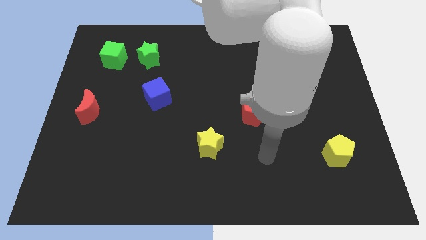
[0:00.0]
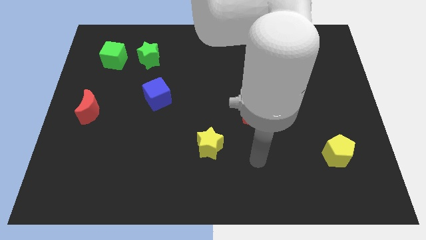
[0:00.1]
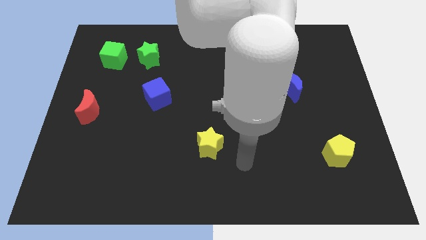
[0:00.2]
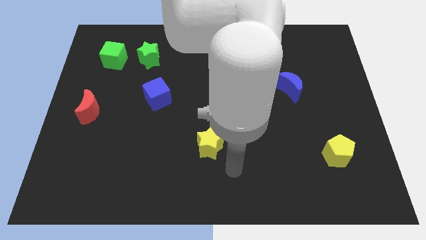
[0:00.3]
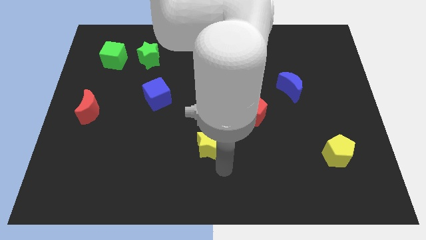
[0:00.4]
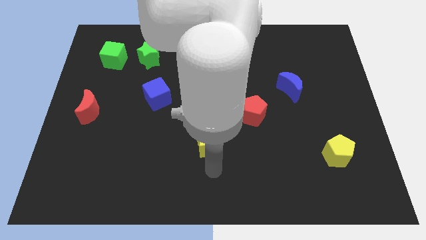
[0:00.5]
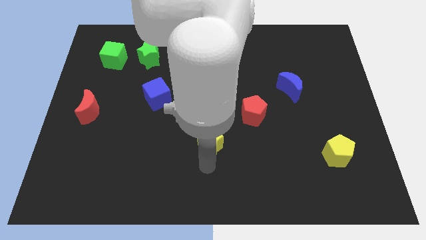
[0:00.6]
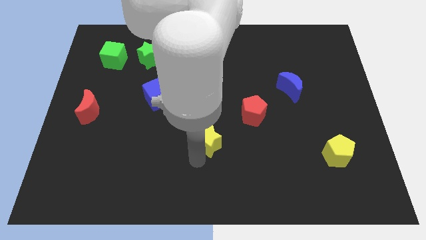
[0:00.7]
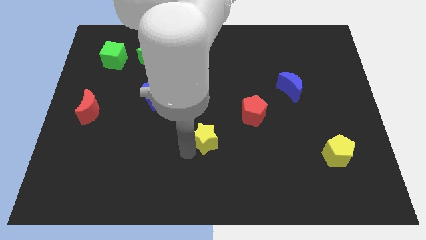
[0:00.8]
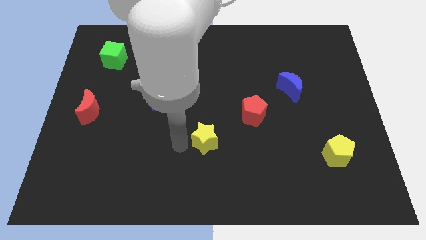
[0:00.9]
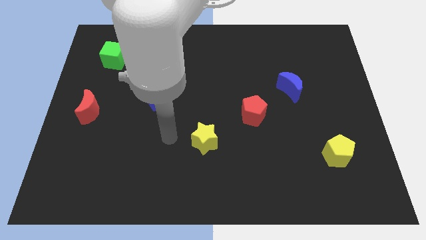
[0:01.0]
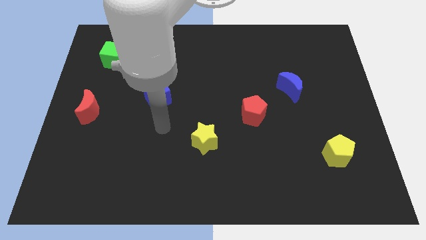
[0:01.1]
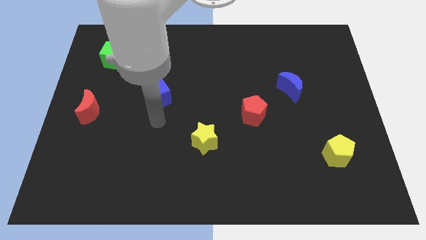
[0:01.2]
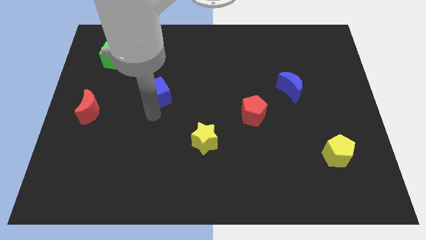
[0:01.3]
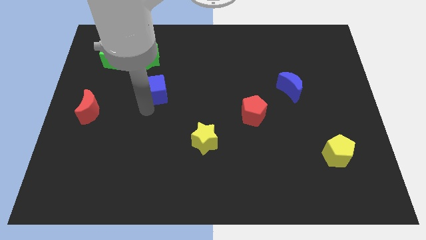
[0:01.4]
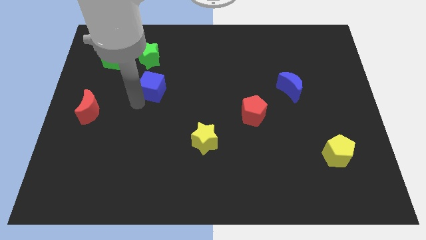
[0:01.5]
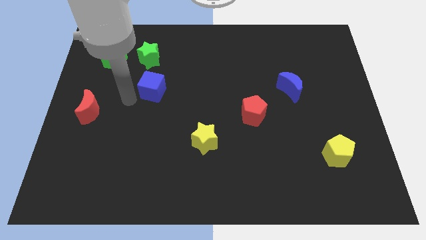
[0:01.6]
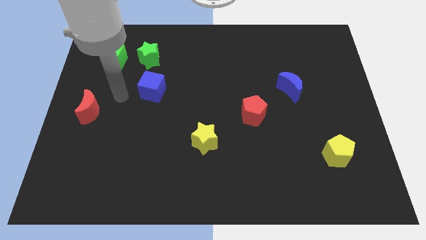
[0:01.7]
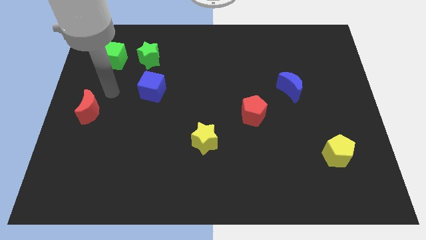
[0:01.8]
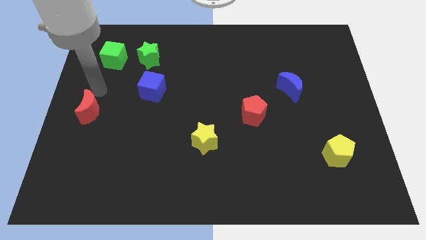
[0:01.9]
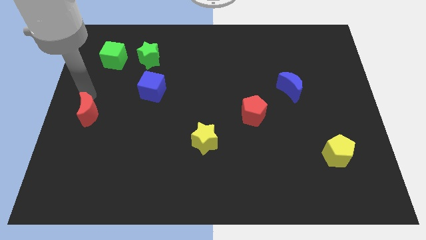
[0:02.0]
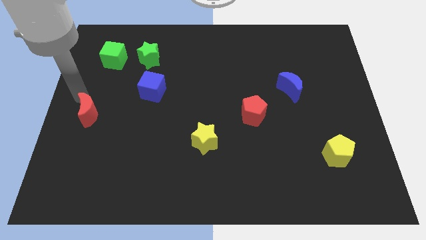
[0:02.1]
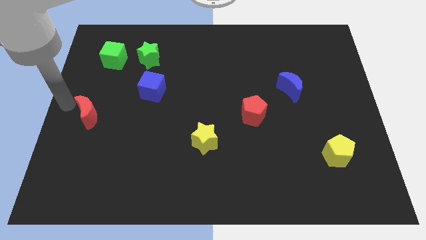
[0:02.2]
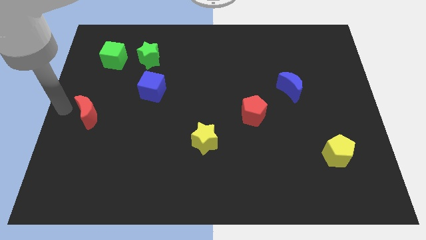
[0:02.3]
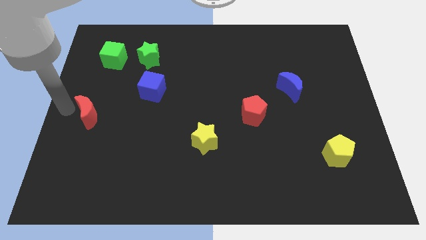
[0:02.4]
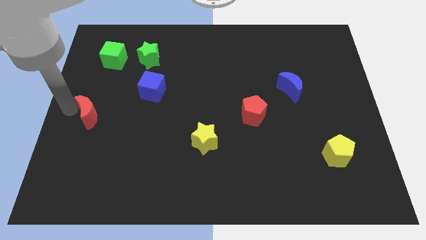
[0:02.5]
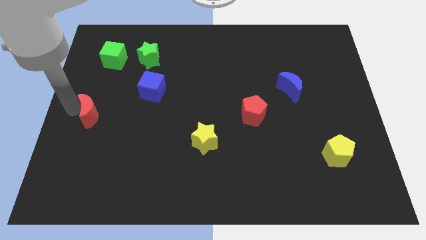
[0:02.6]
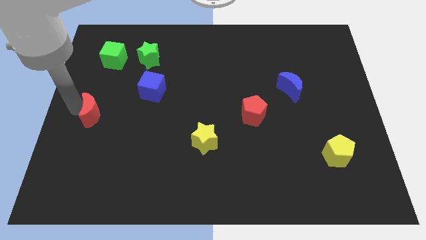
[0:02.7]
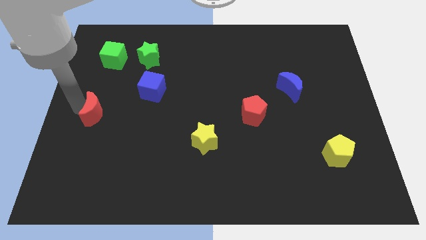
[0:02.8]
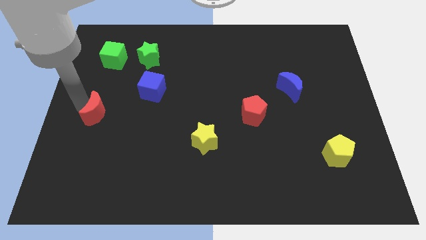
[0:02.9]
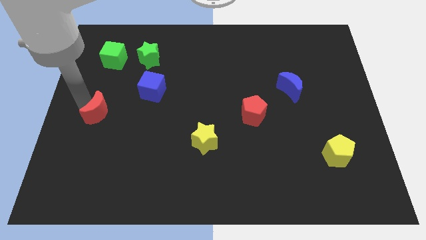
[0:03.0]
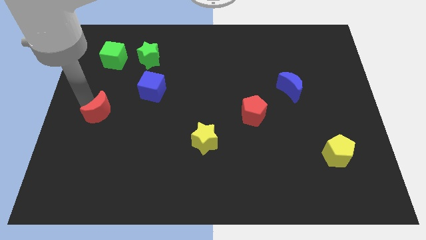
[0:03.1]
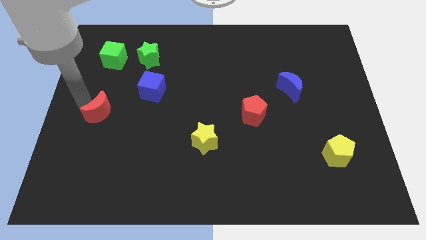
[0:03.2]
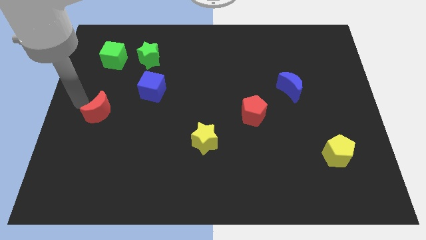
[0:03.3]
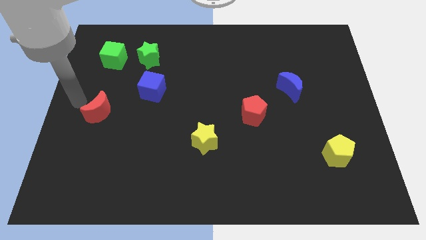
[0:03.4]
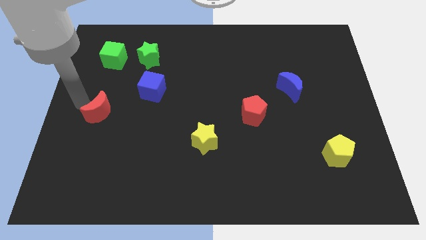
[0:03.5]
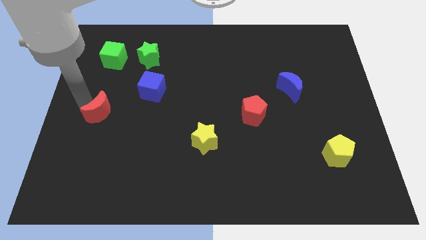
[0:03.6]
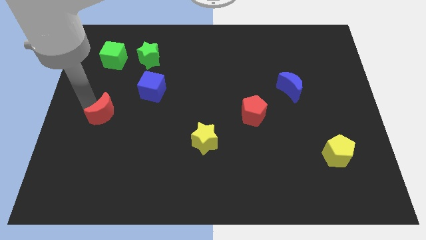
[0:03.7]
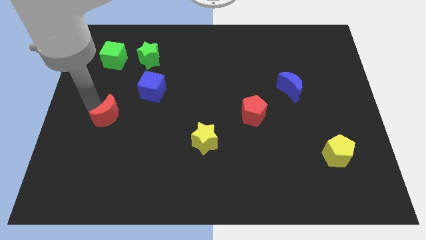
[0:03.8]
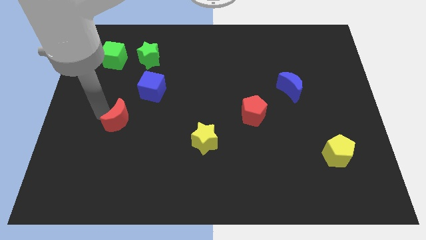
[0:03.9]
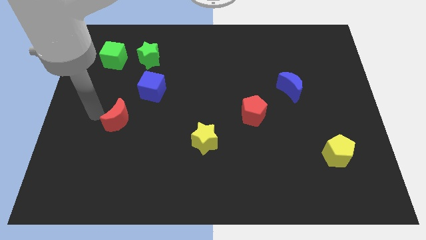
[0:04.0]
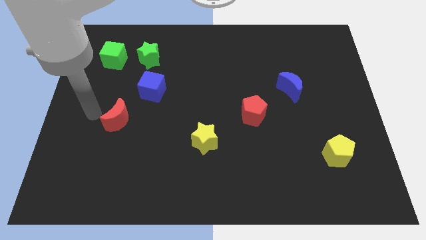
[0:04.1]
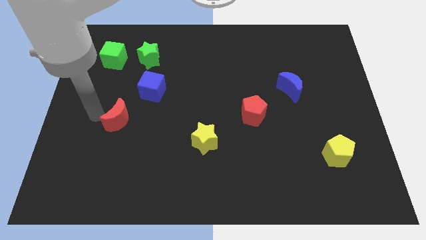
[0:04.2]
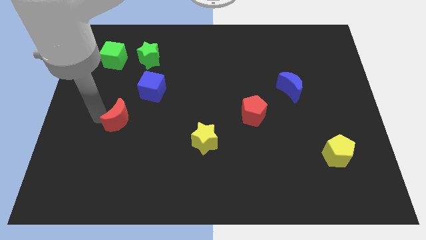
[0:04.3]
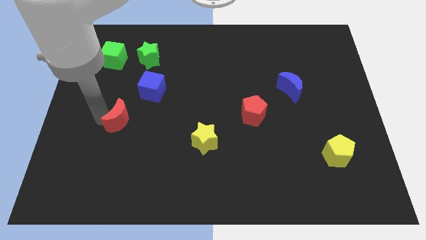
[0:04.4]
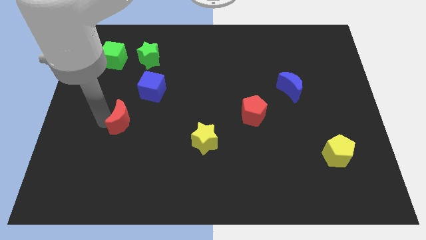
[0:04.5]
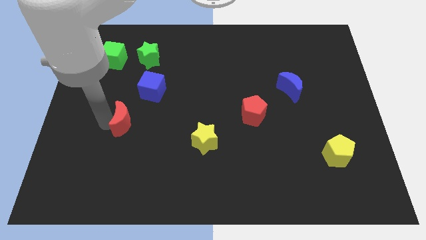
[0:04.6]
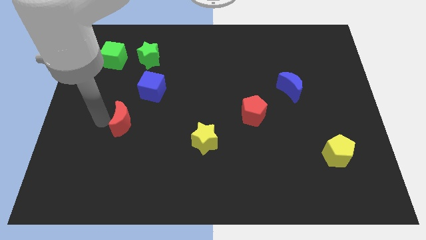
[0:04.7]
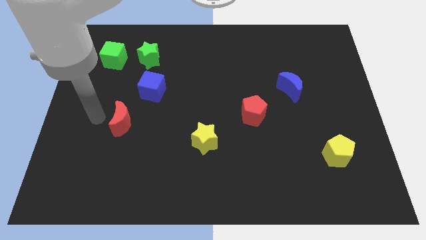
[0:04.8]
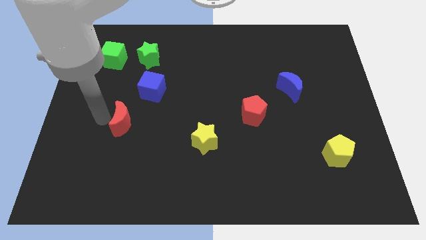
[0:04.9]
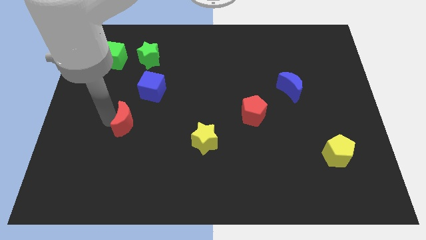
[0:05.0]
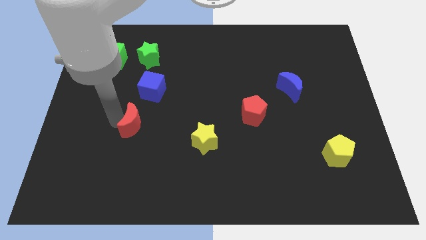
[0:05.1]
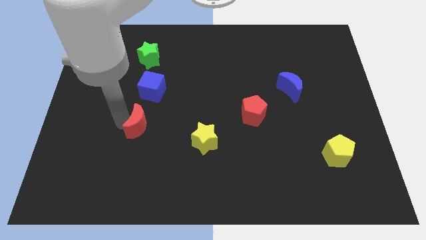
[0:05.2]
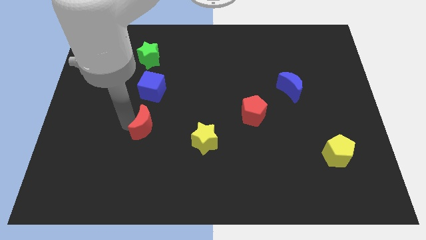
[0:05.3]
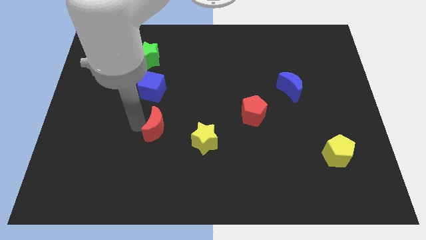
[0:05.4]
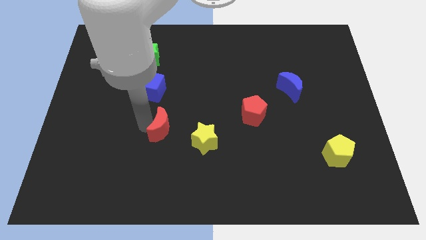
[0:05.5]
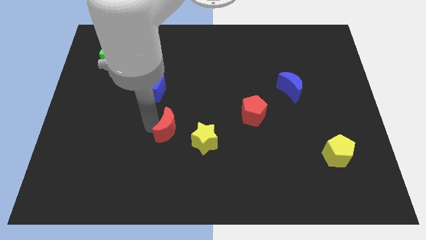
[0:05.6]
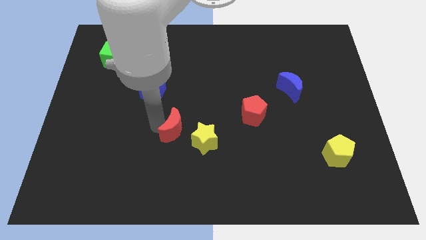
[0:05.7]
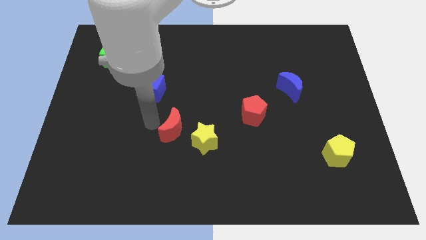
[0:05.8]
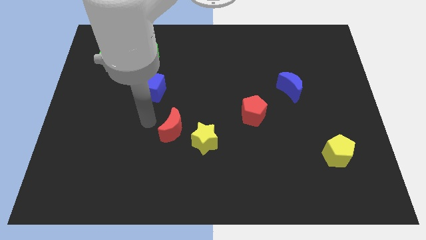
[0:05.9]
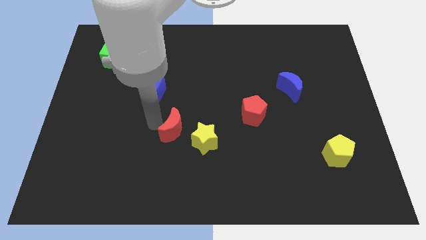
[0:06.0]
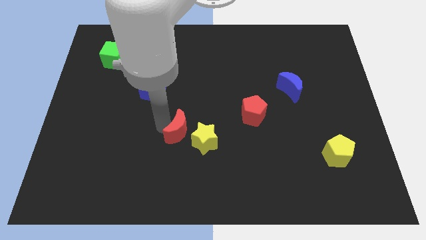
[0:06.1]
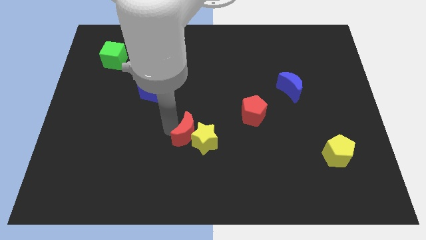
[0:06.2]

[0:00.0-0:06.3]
push the red moon towards the yellow star

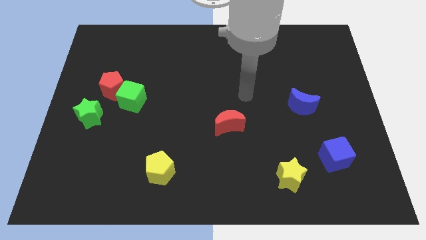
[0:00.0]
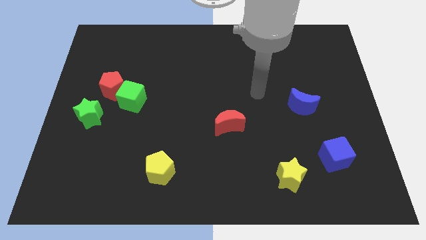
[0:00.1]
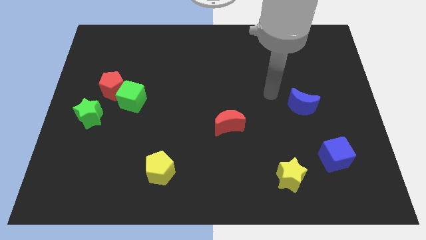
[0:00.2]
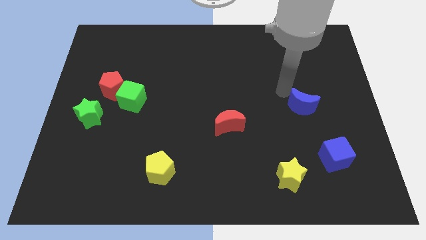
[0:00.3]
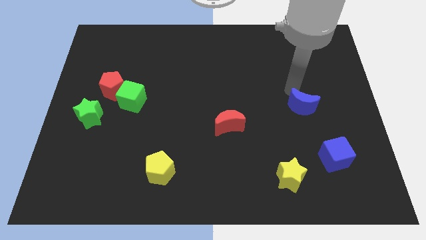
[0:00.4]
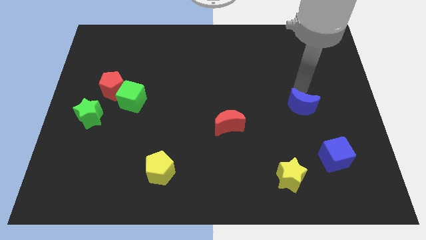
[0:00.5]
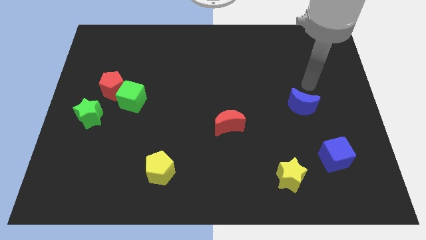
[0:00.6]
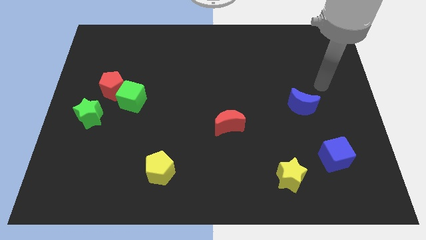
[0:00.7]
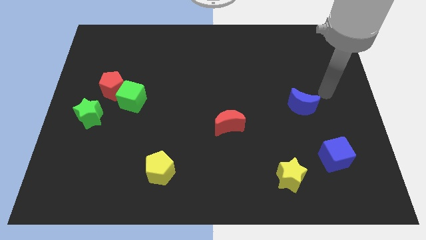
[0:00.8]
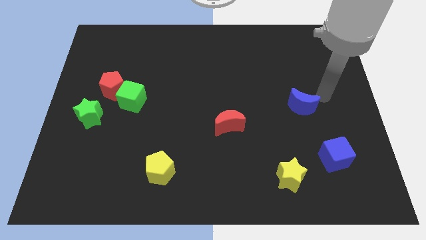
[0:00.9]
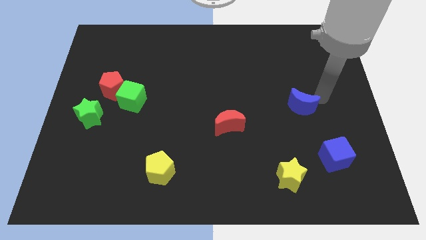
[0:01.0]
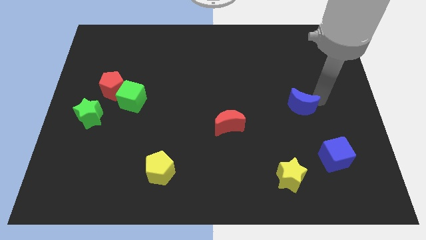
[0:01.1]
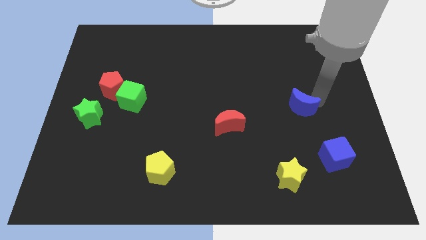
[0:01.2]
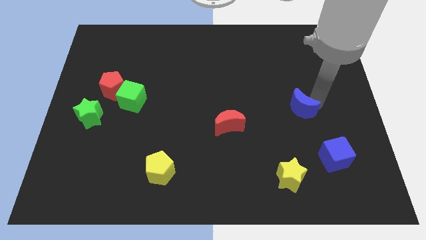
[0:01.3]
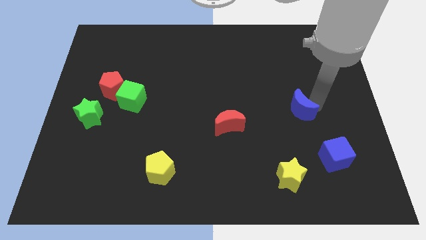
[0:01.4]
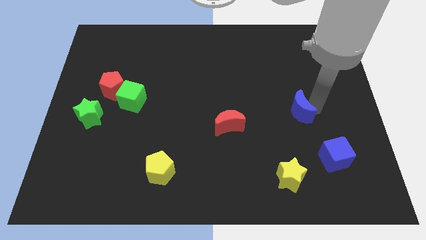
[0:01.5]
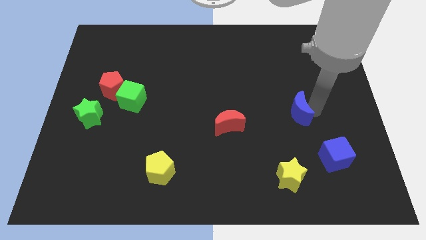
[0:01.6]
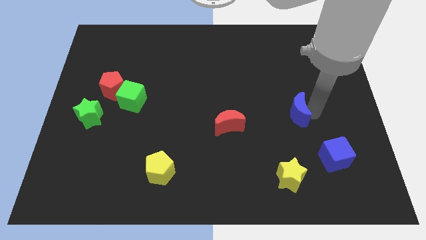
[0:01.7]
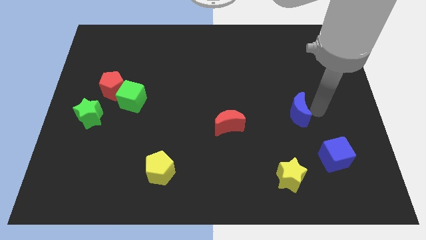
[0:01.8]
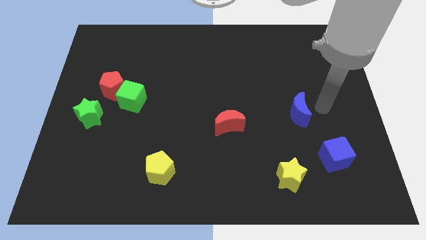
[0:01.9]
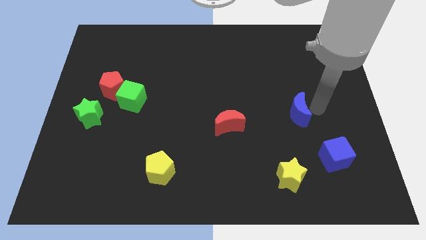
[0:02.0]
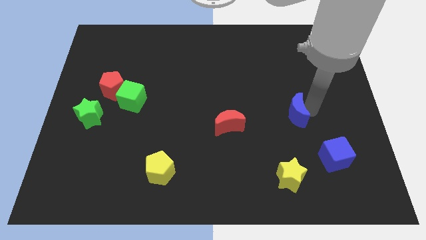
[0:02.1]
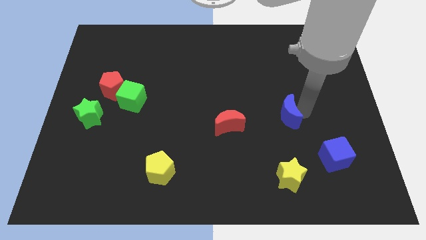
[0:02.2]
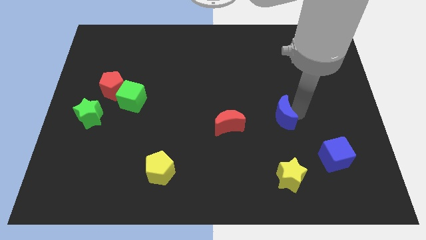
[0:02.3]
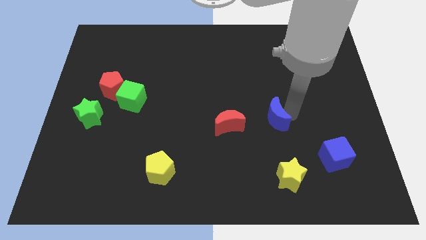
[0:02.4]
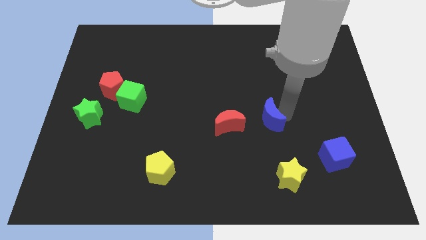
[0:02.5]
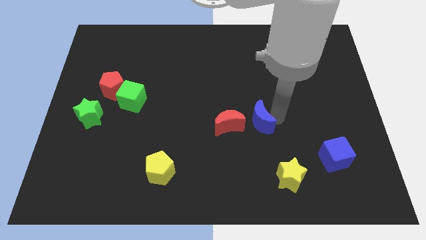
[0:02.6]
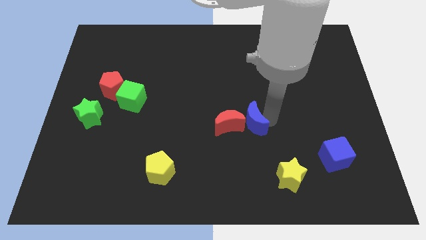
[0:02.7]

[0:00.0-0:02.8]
move the blue moon close to the red moon
